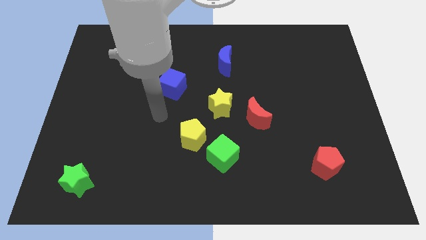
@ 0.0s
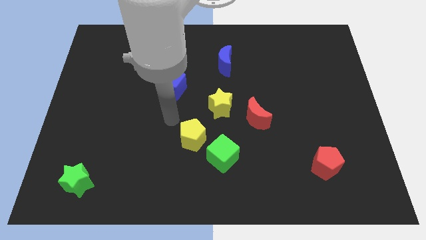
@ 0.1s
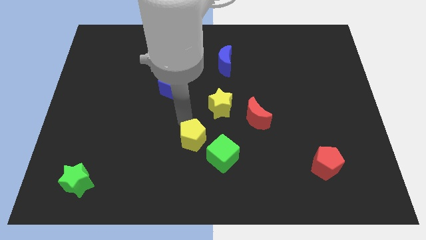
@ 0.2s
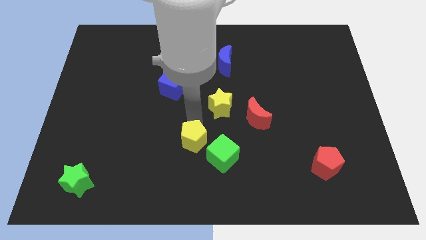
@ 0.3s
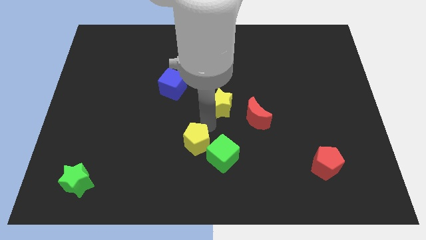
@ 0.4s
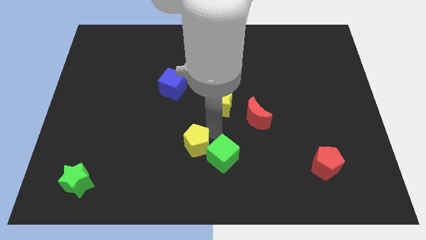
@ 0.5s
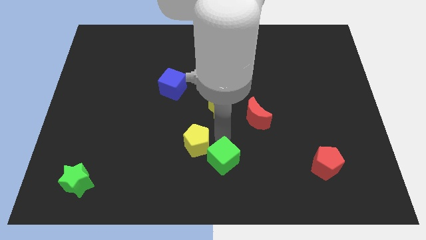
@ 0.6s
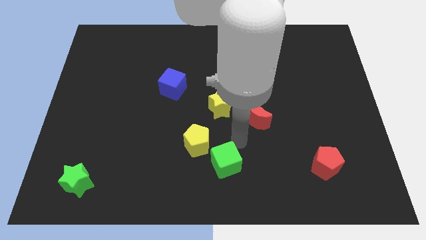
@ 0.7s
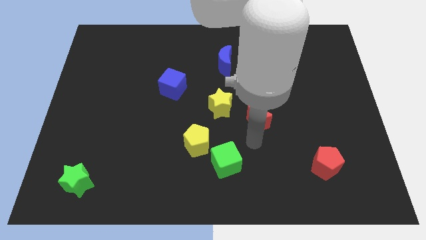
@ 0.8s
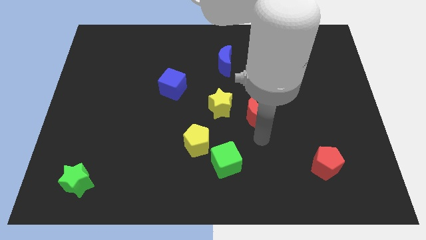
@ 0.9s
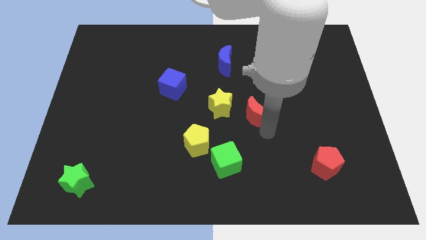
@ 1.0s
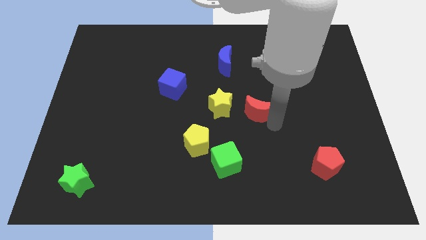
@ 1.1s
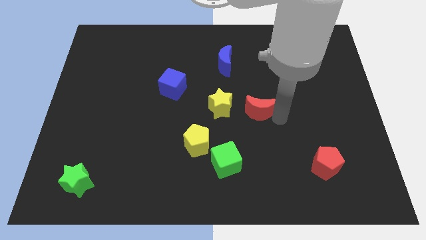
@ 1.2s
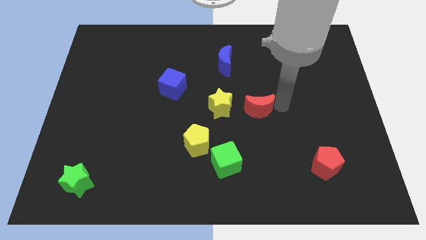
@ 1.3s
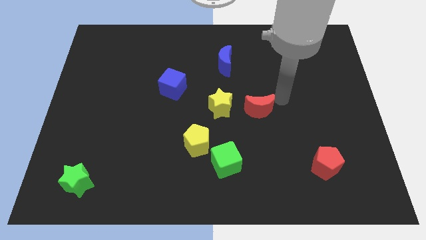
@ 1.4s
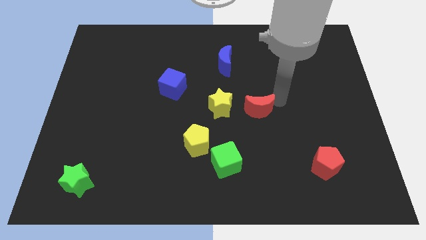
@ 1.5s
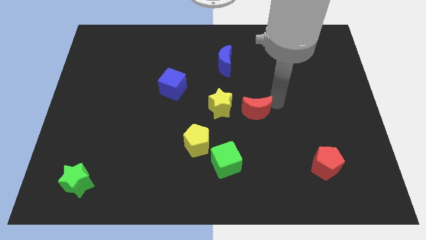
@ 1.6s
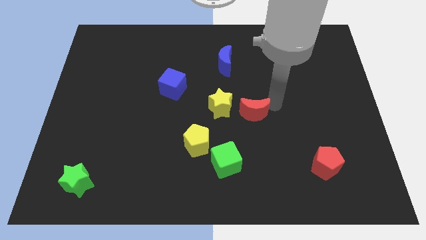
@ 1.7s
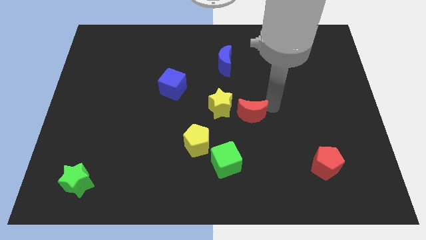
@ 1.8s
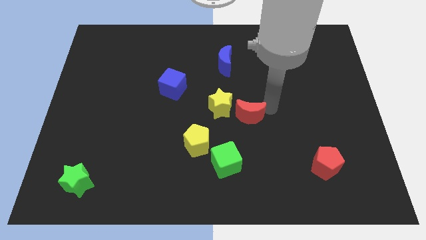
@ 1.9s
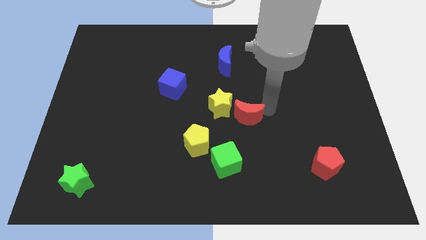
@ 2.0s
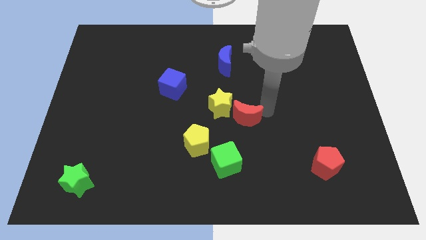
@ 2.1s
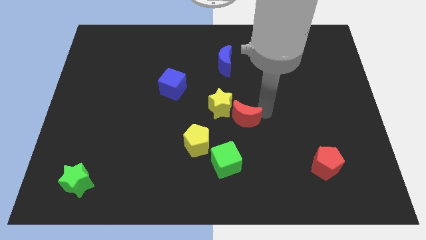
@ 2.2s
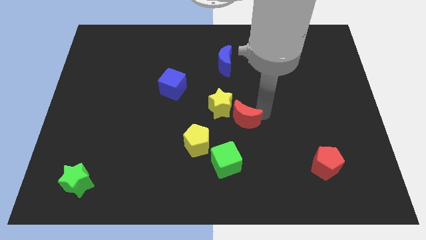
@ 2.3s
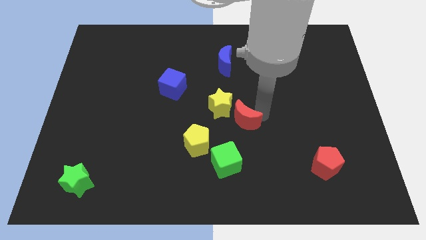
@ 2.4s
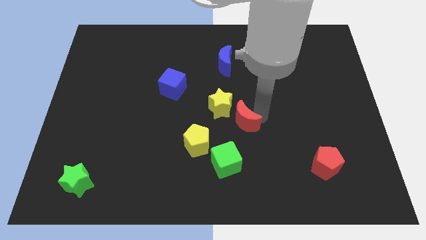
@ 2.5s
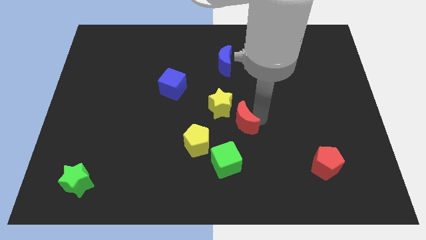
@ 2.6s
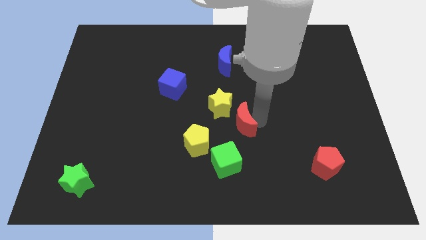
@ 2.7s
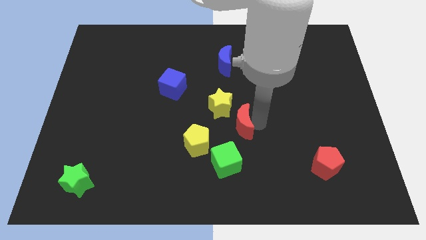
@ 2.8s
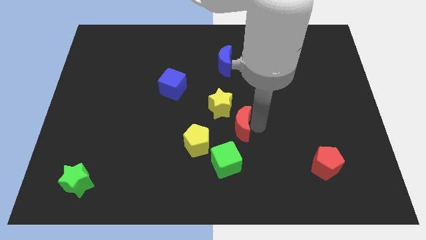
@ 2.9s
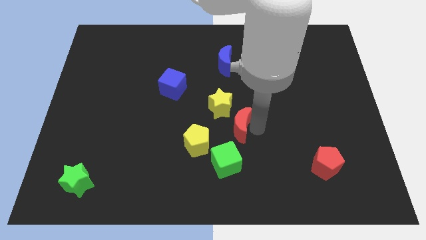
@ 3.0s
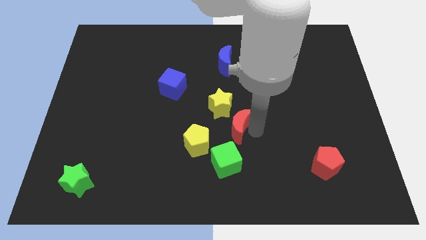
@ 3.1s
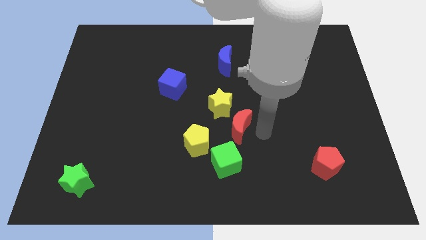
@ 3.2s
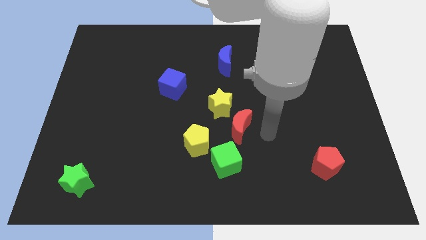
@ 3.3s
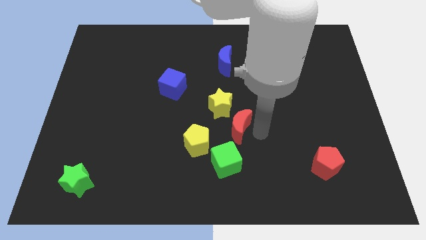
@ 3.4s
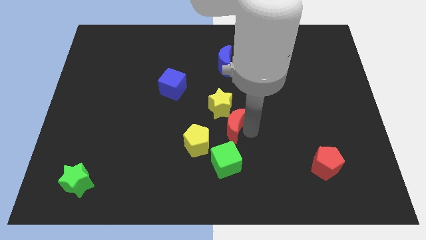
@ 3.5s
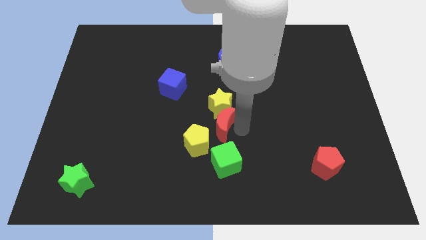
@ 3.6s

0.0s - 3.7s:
move the red moon to the left a little

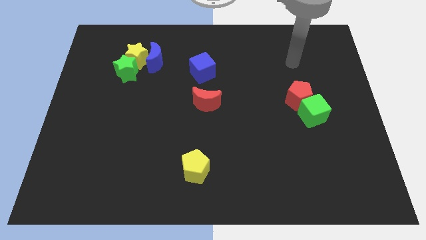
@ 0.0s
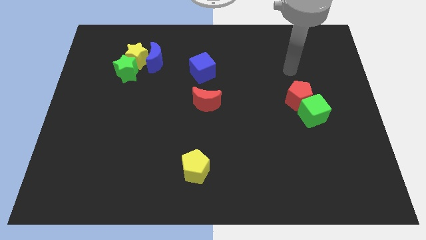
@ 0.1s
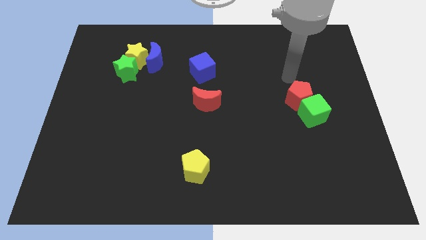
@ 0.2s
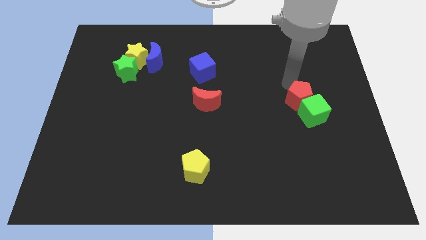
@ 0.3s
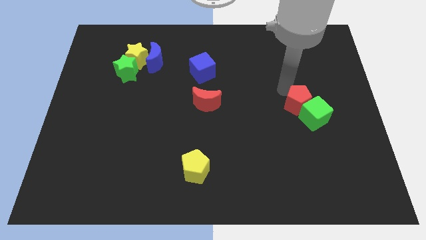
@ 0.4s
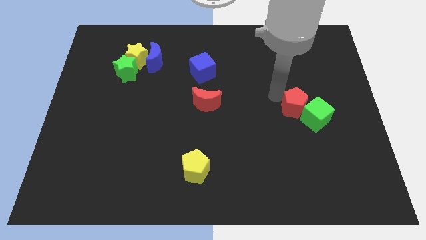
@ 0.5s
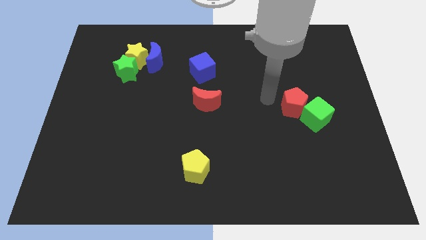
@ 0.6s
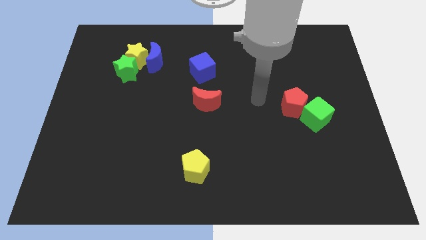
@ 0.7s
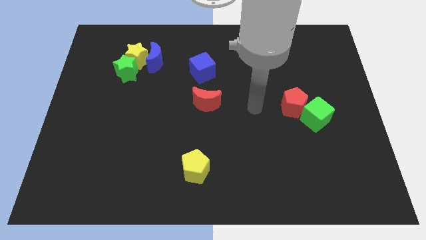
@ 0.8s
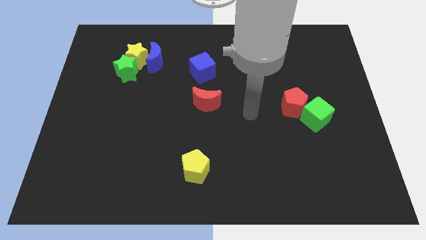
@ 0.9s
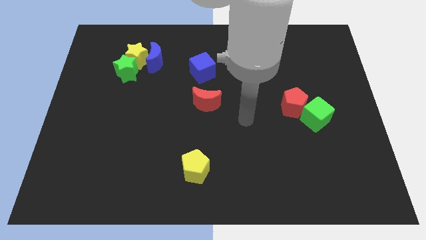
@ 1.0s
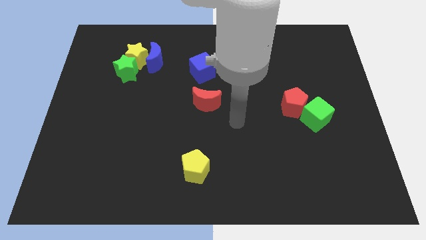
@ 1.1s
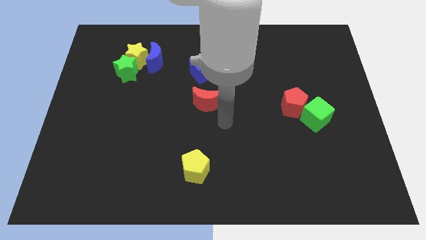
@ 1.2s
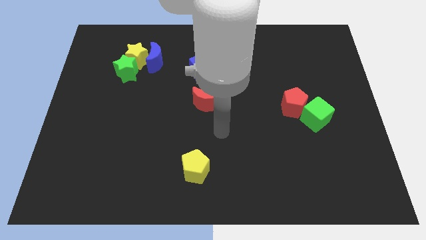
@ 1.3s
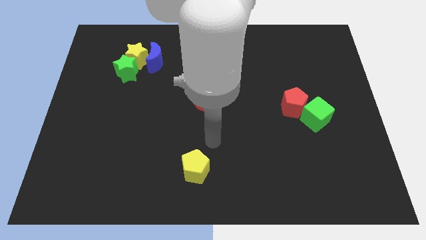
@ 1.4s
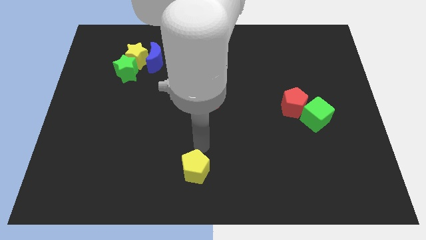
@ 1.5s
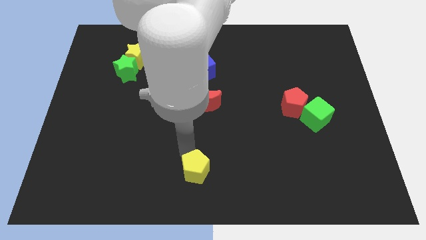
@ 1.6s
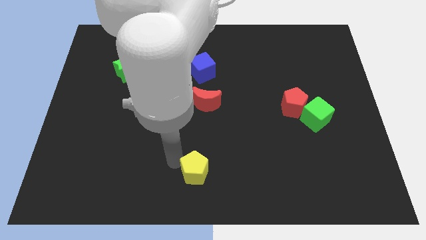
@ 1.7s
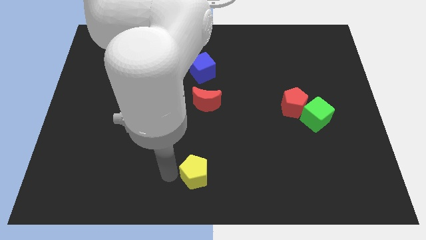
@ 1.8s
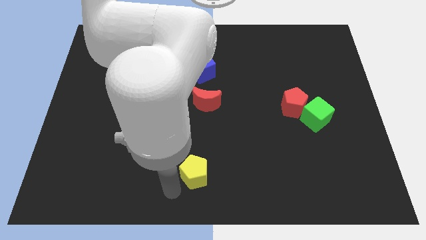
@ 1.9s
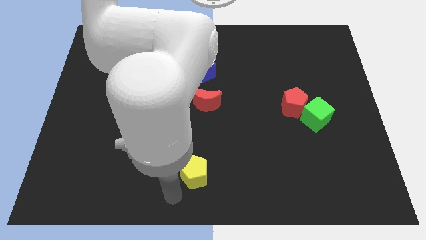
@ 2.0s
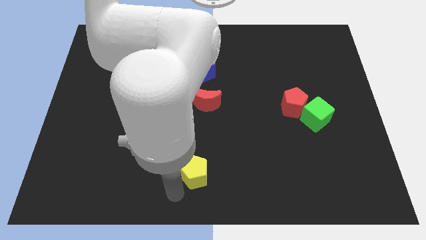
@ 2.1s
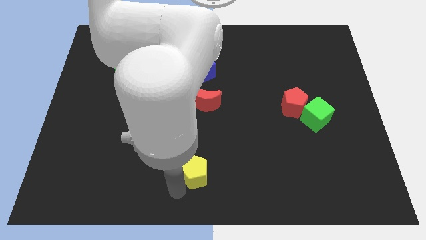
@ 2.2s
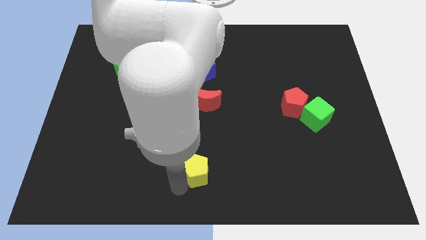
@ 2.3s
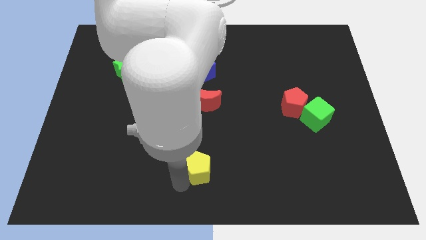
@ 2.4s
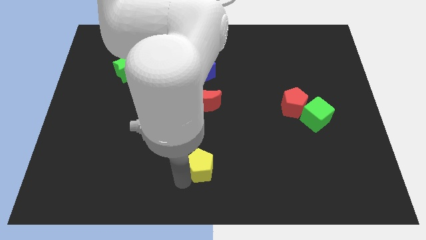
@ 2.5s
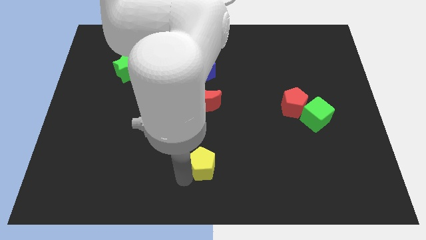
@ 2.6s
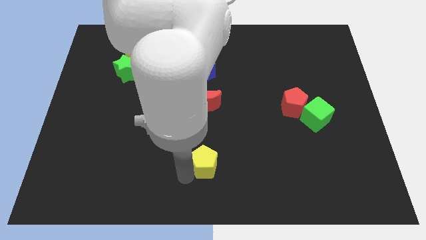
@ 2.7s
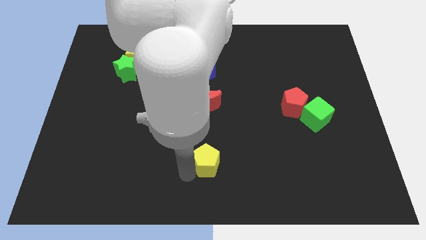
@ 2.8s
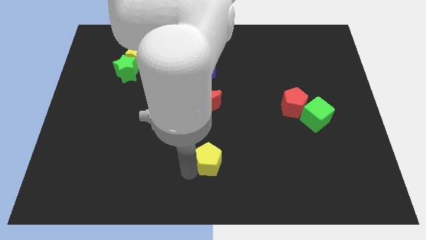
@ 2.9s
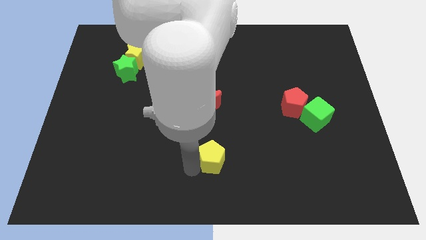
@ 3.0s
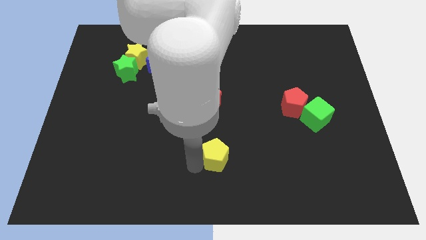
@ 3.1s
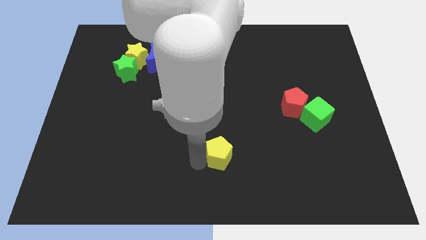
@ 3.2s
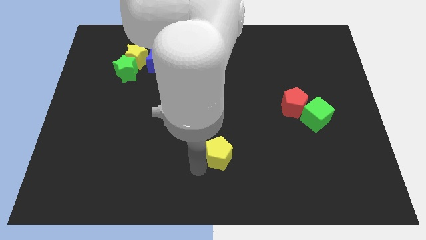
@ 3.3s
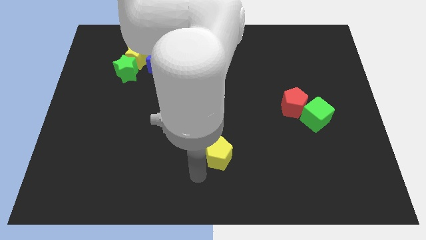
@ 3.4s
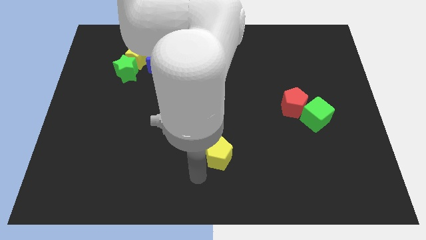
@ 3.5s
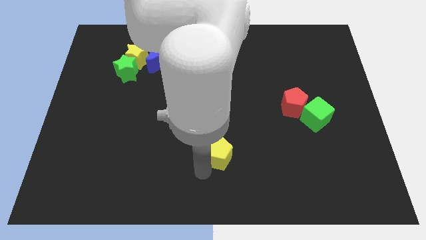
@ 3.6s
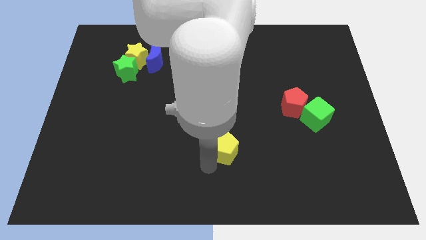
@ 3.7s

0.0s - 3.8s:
move the yellow pentagon a bit up and then to the right

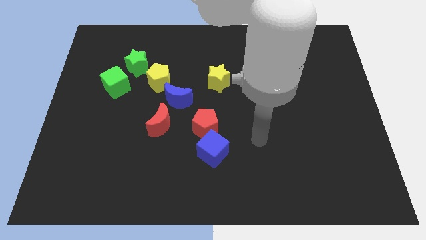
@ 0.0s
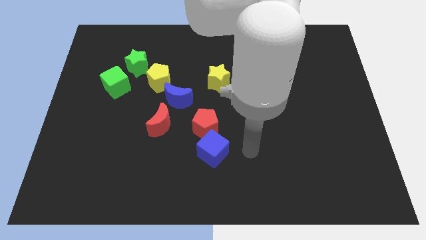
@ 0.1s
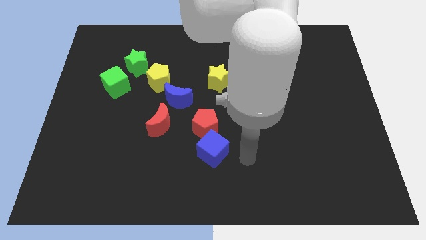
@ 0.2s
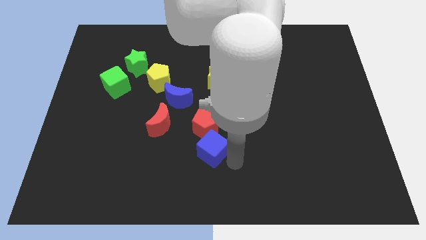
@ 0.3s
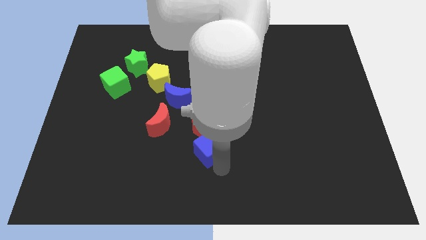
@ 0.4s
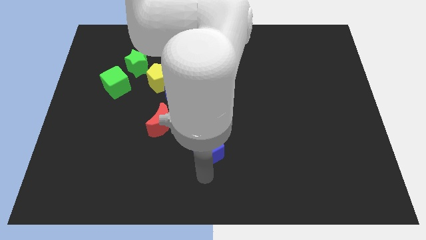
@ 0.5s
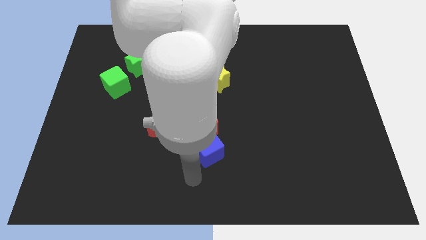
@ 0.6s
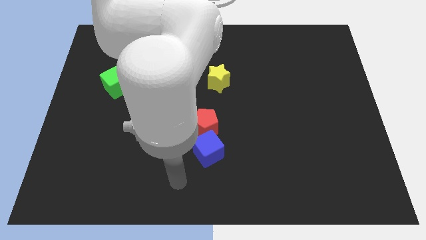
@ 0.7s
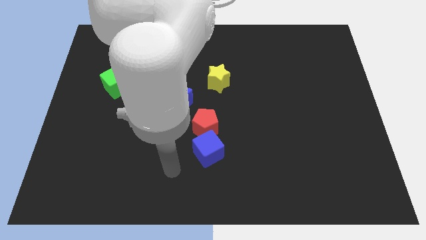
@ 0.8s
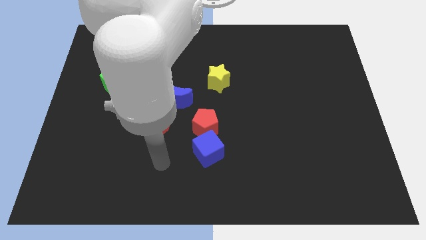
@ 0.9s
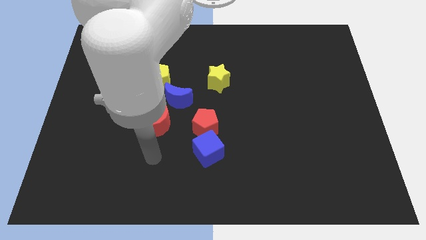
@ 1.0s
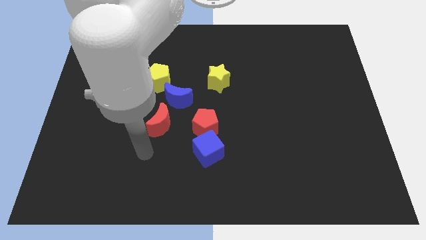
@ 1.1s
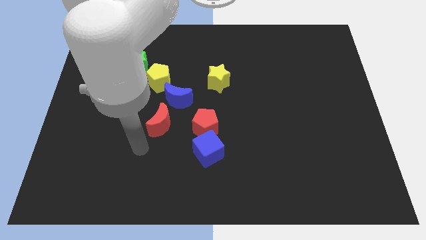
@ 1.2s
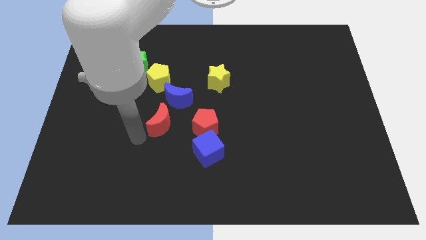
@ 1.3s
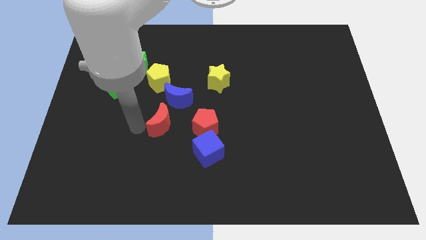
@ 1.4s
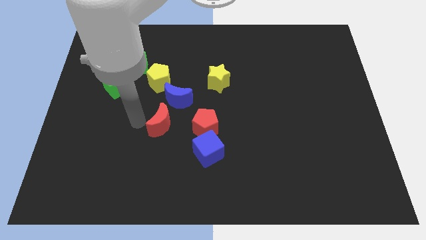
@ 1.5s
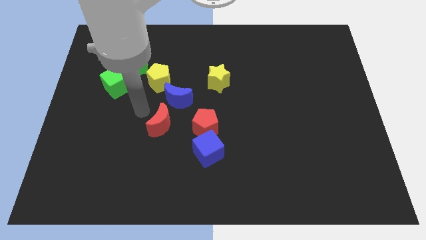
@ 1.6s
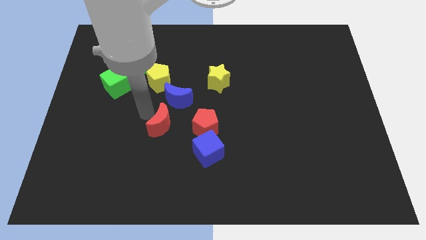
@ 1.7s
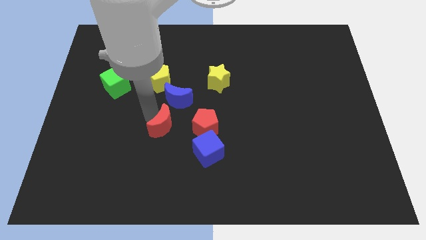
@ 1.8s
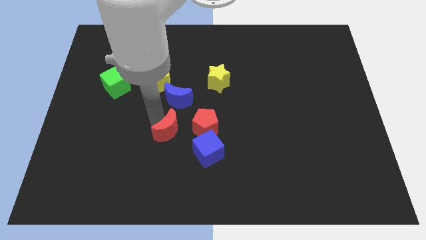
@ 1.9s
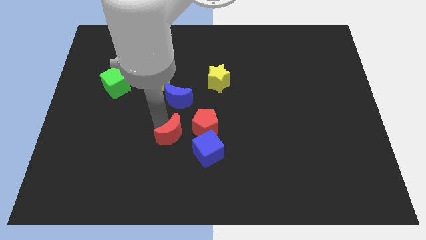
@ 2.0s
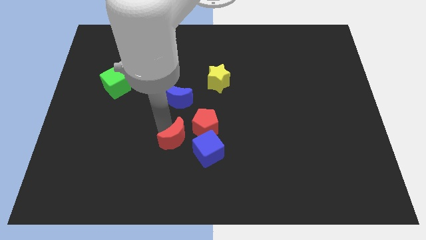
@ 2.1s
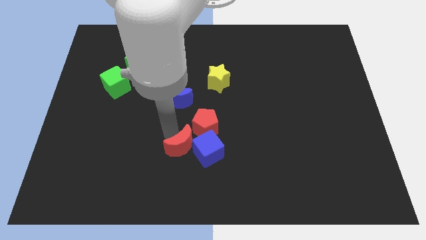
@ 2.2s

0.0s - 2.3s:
slightly slide the red moon diagonally downwards and right
